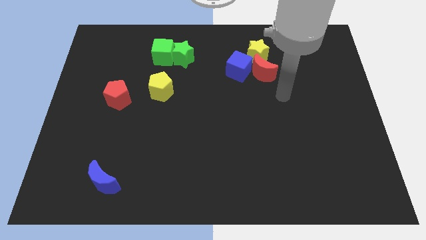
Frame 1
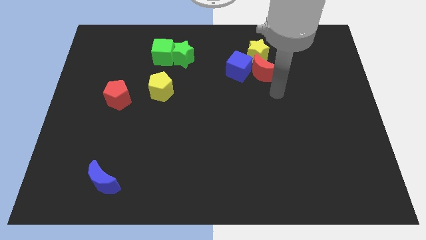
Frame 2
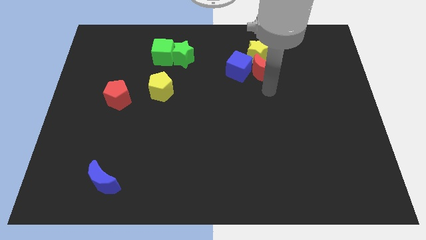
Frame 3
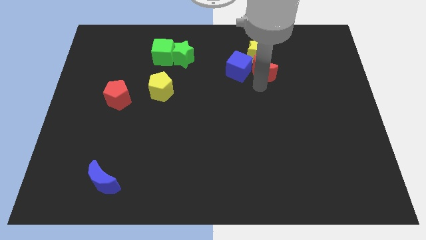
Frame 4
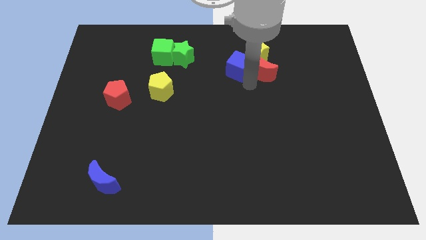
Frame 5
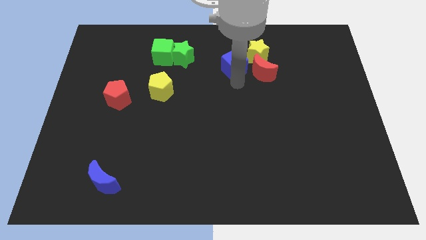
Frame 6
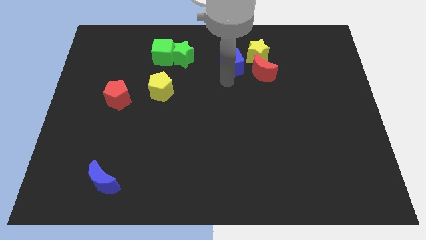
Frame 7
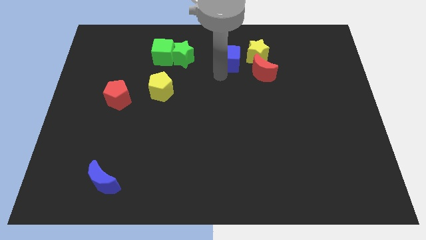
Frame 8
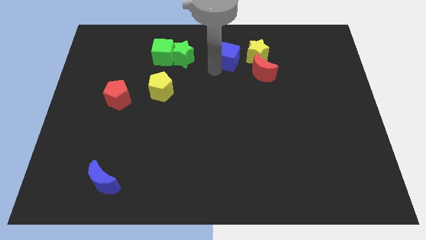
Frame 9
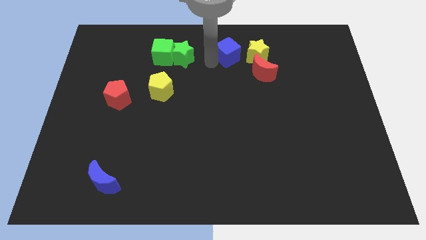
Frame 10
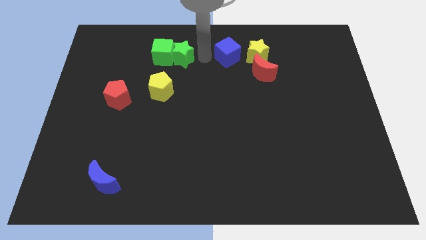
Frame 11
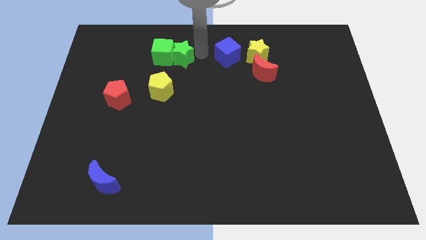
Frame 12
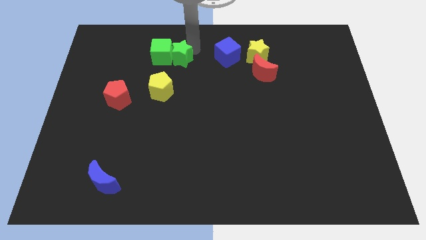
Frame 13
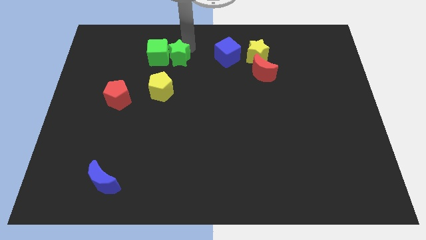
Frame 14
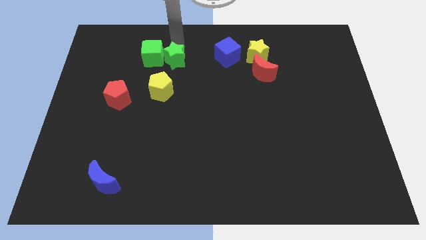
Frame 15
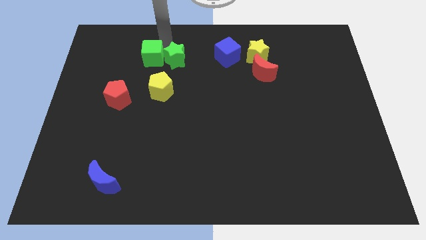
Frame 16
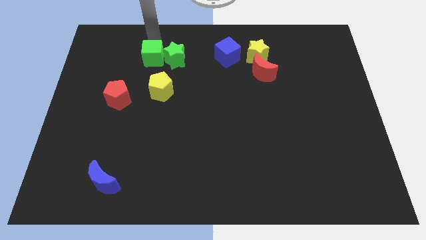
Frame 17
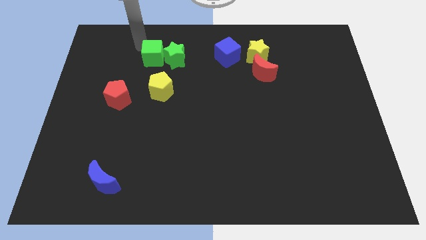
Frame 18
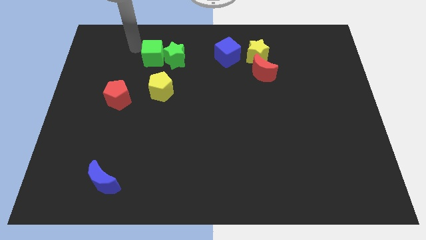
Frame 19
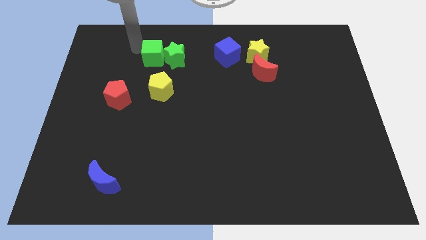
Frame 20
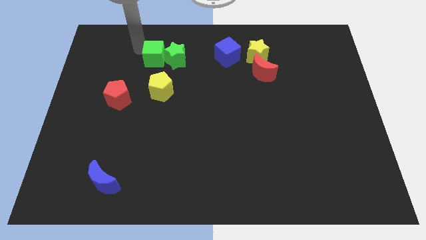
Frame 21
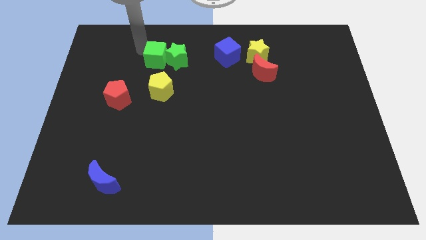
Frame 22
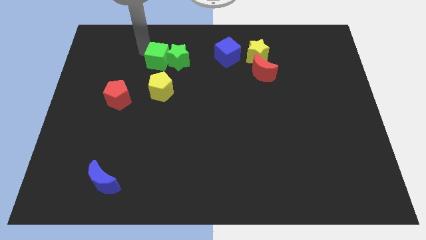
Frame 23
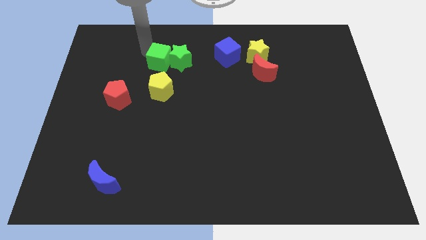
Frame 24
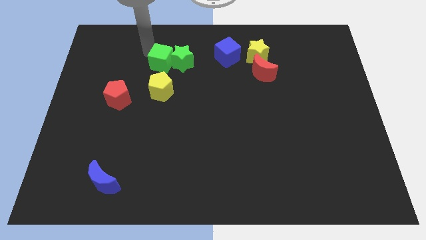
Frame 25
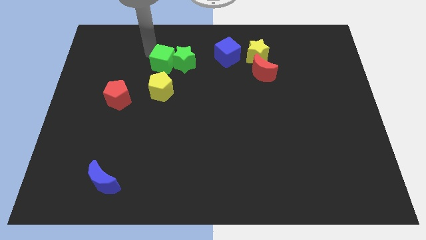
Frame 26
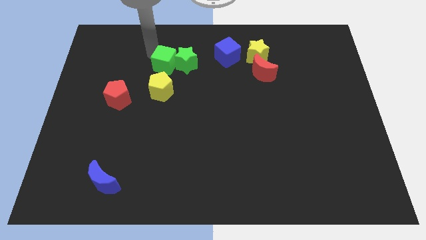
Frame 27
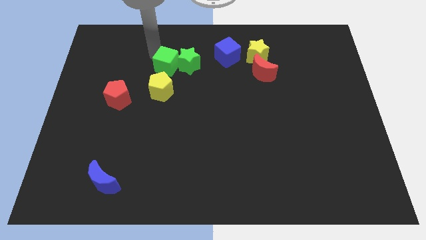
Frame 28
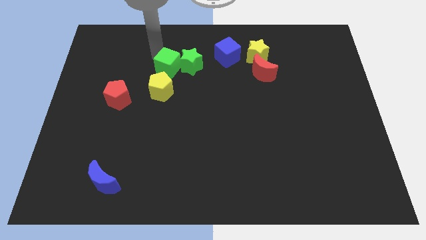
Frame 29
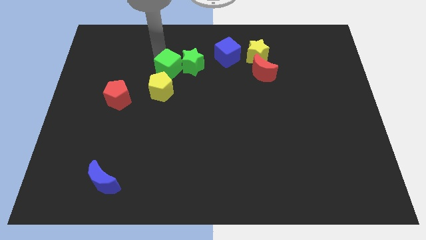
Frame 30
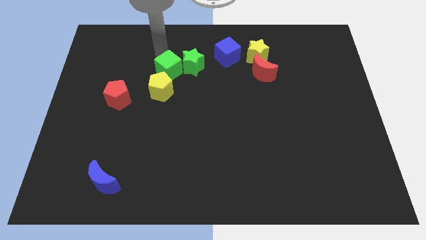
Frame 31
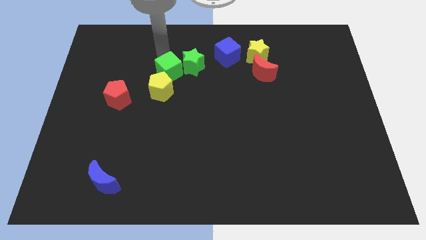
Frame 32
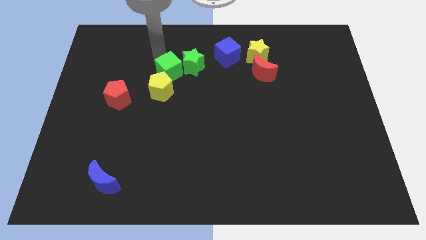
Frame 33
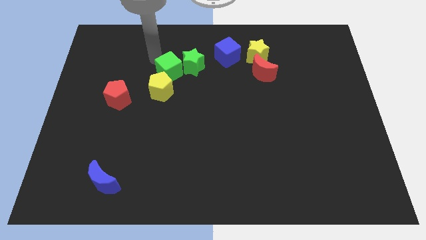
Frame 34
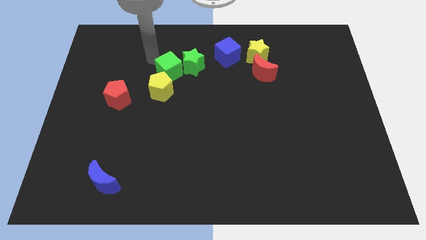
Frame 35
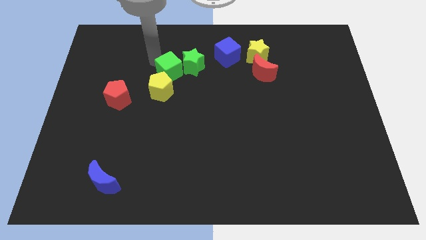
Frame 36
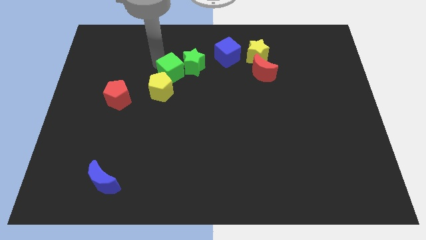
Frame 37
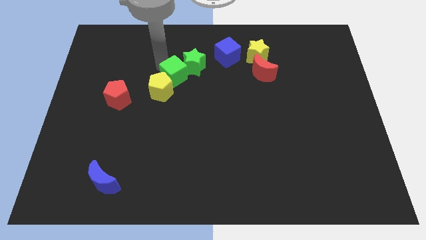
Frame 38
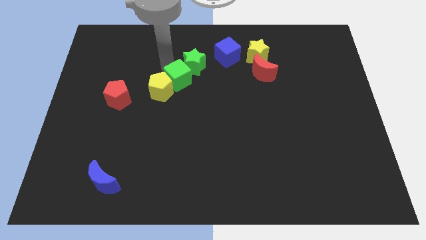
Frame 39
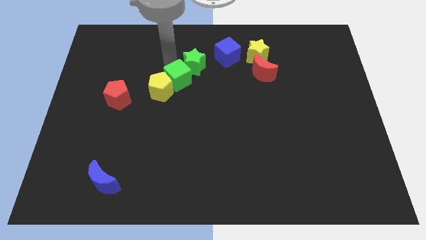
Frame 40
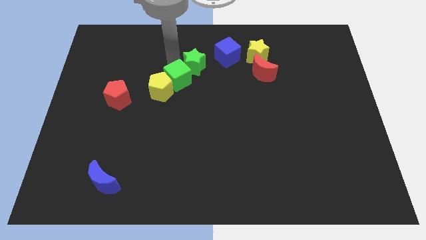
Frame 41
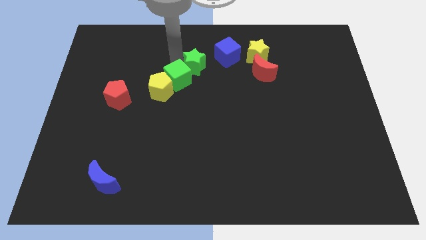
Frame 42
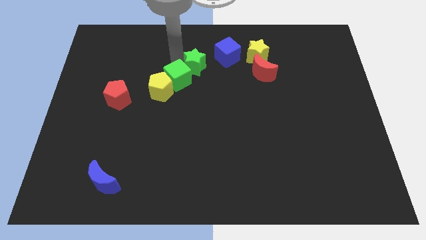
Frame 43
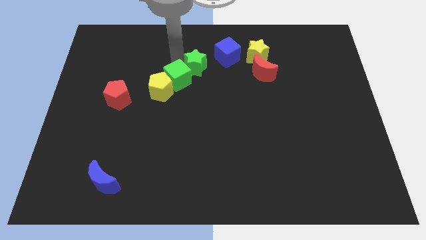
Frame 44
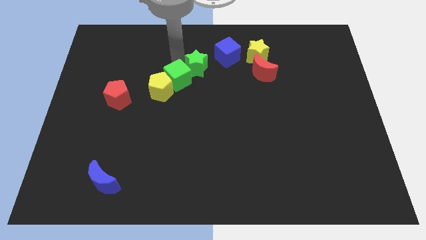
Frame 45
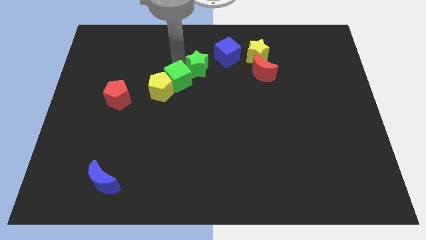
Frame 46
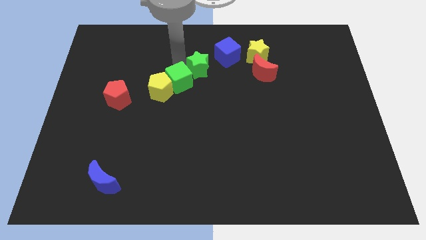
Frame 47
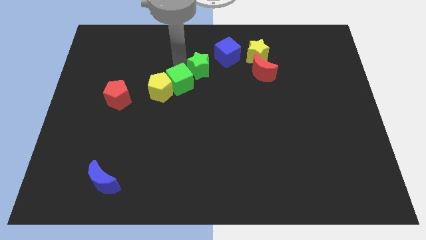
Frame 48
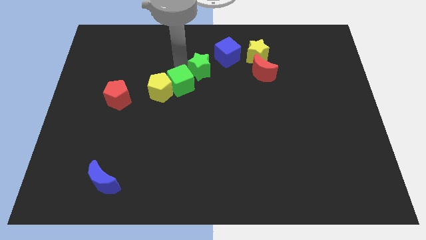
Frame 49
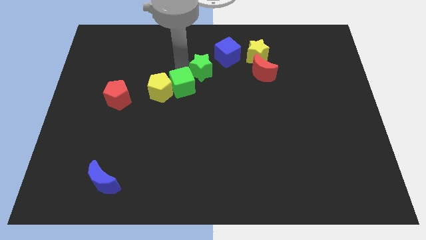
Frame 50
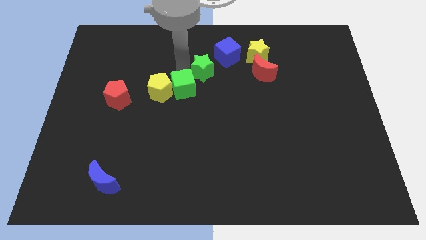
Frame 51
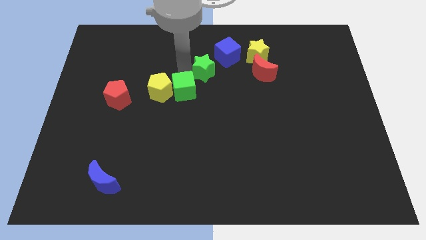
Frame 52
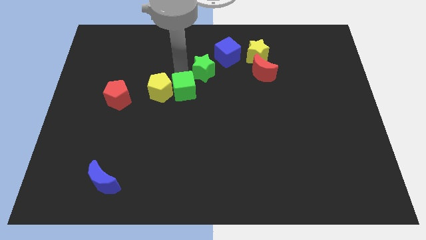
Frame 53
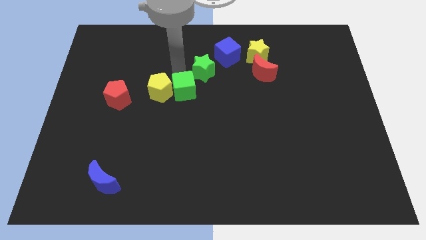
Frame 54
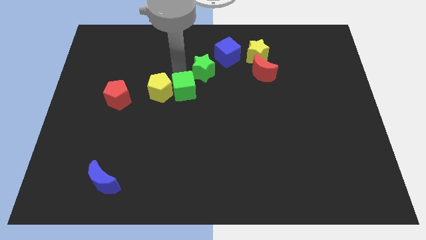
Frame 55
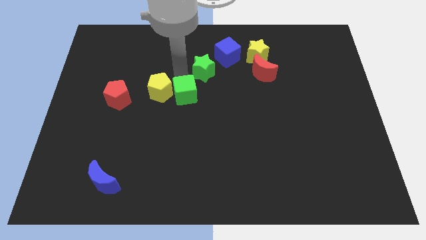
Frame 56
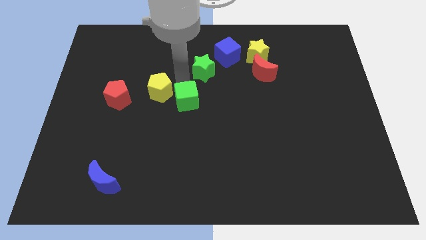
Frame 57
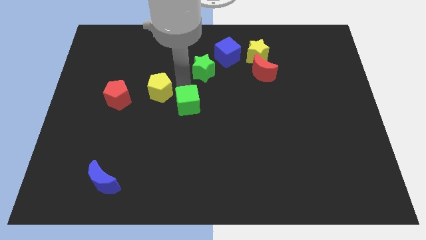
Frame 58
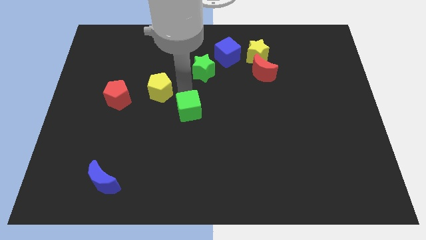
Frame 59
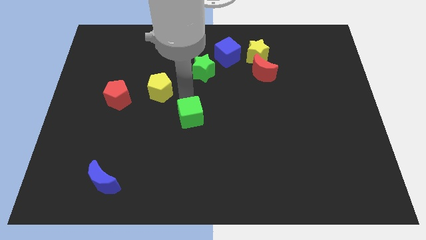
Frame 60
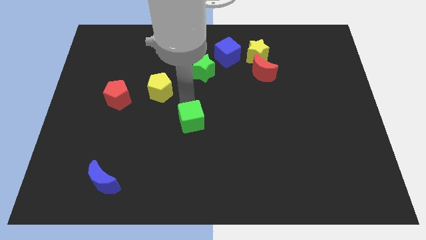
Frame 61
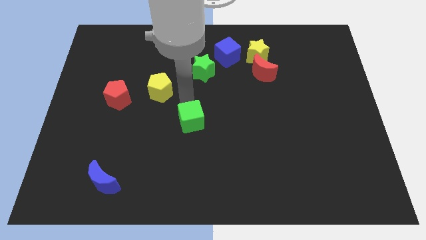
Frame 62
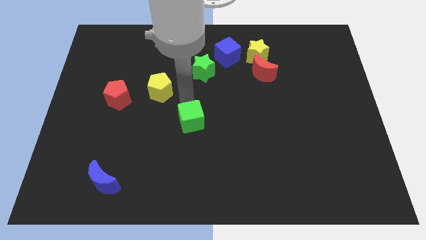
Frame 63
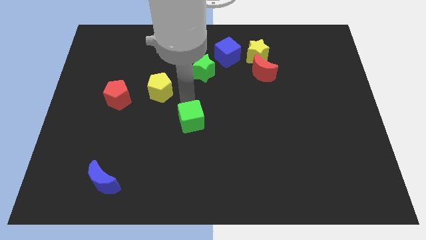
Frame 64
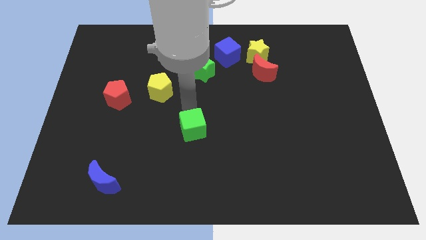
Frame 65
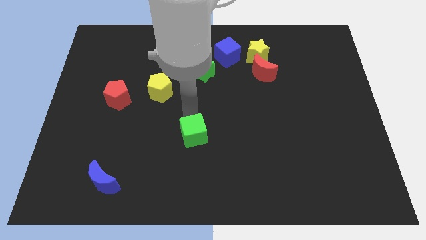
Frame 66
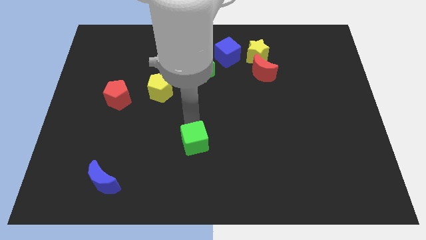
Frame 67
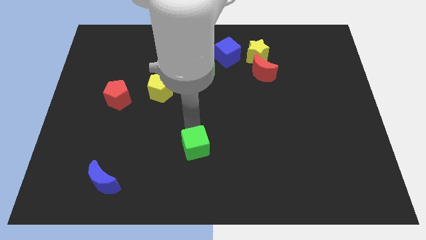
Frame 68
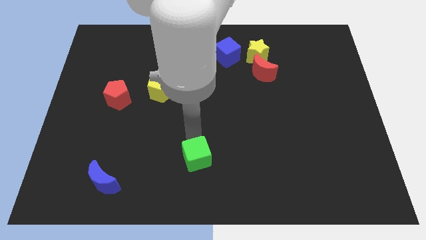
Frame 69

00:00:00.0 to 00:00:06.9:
move the green cube to the bottom

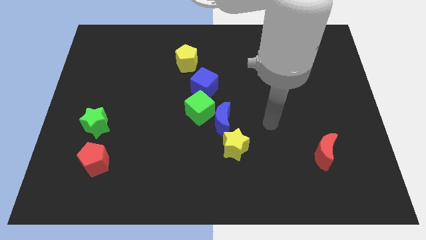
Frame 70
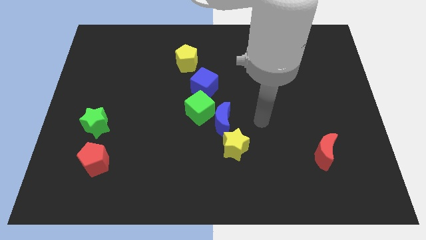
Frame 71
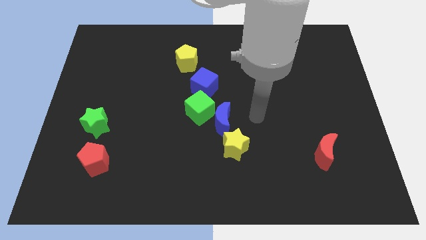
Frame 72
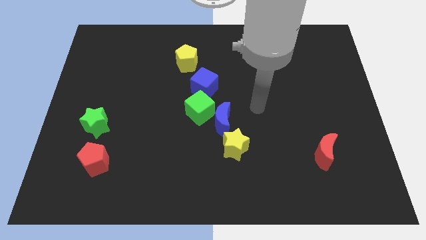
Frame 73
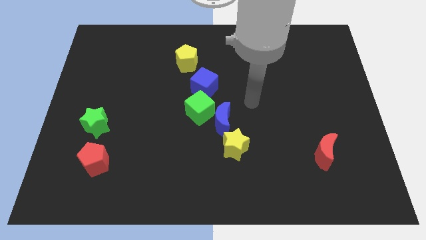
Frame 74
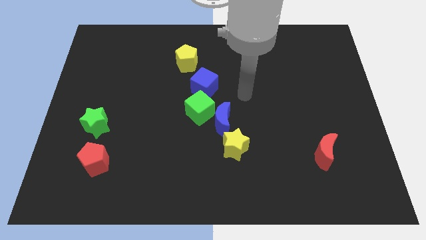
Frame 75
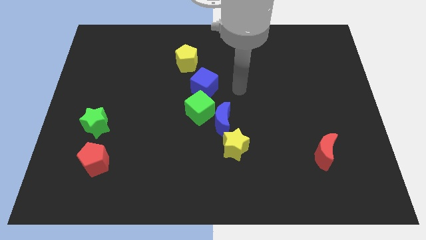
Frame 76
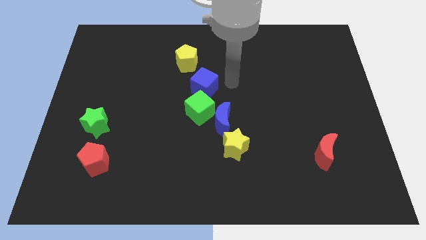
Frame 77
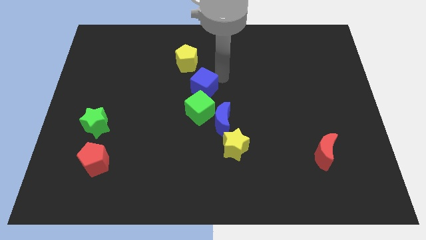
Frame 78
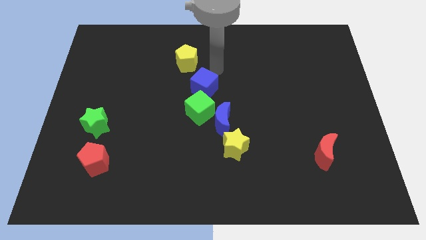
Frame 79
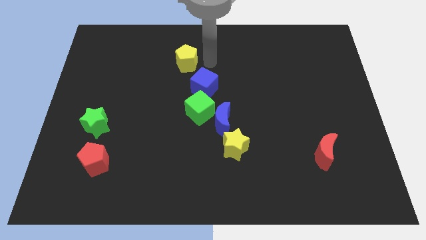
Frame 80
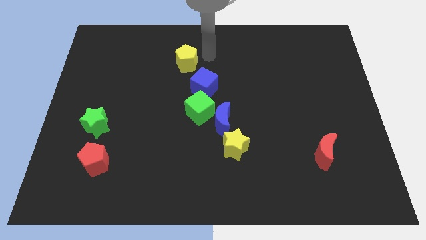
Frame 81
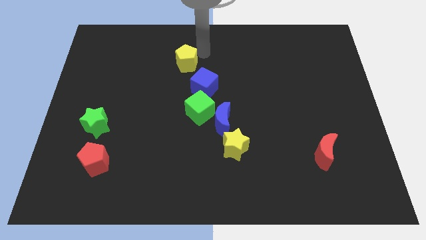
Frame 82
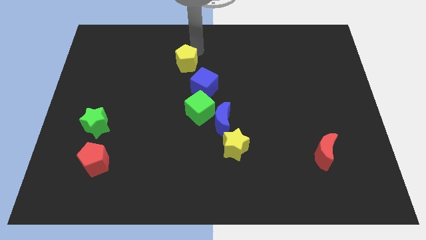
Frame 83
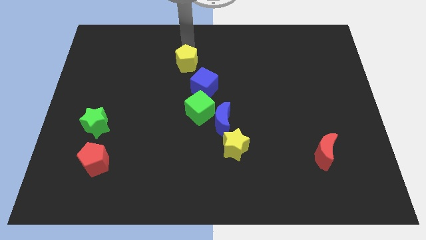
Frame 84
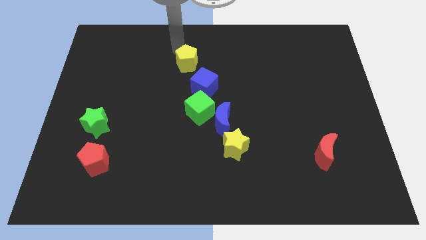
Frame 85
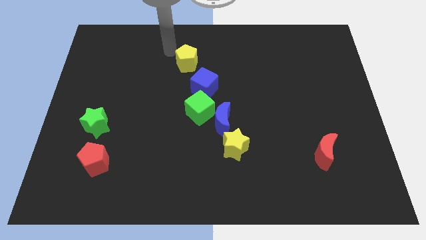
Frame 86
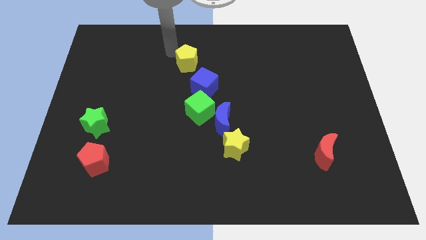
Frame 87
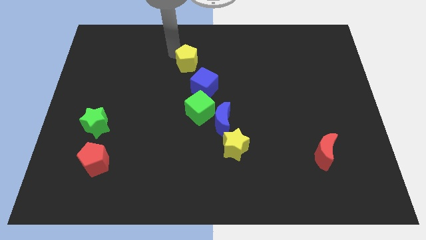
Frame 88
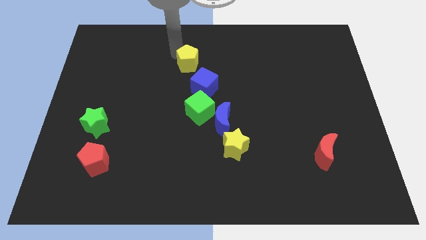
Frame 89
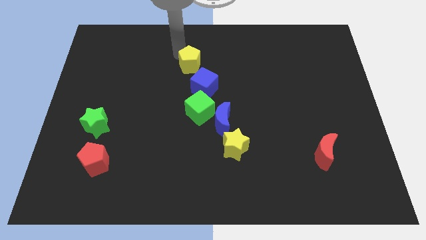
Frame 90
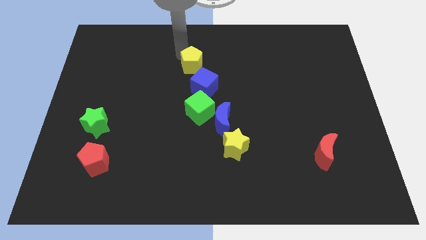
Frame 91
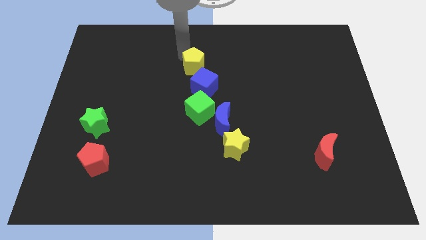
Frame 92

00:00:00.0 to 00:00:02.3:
push the yellow pentagon to the middle
